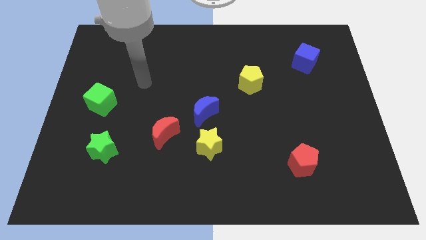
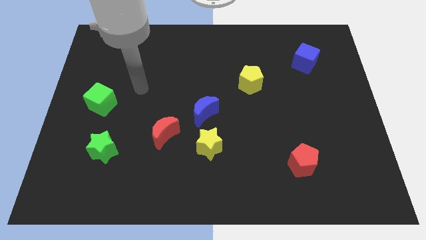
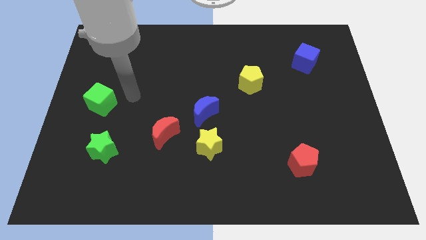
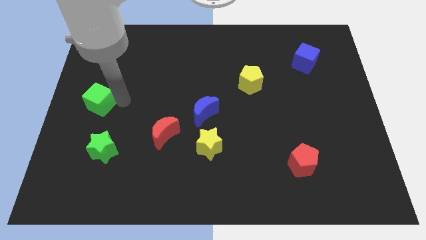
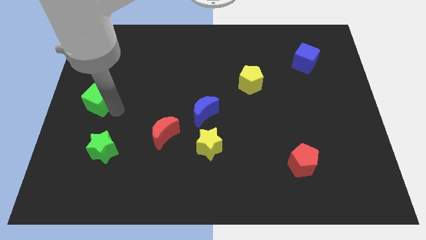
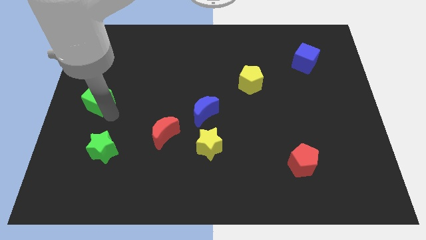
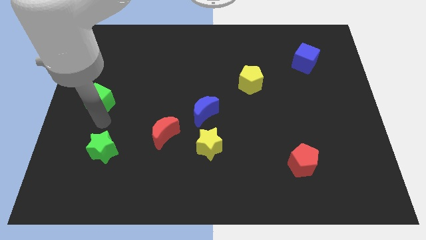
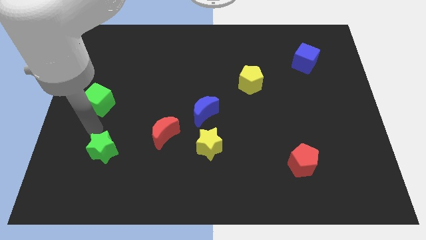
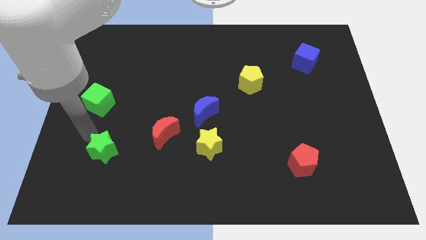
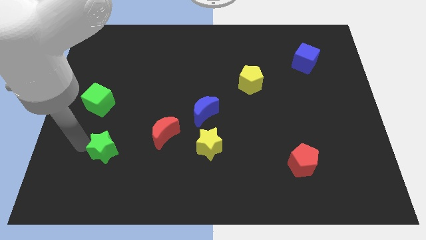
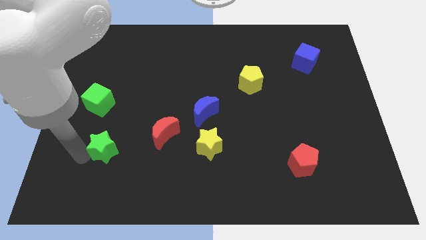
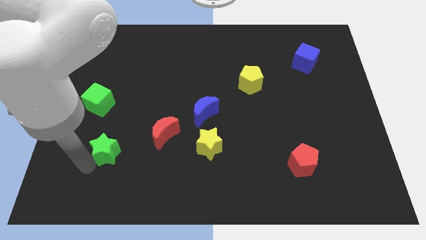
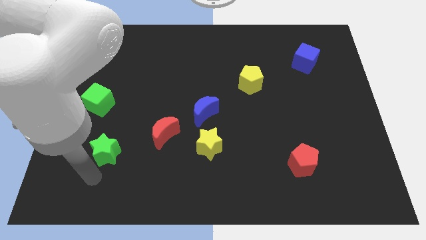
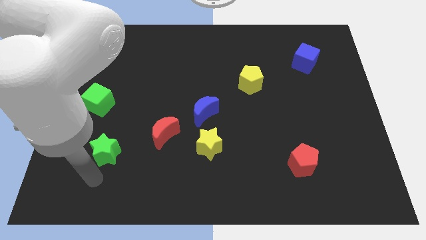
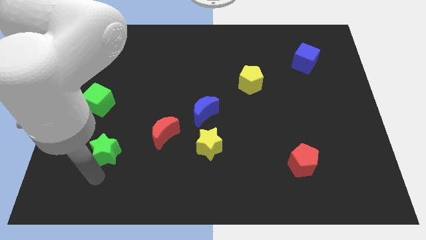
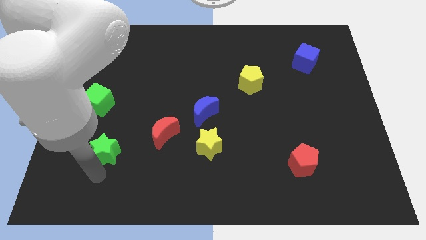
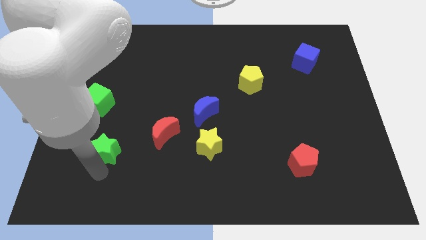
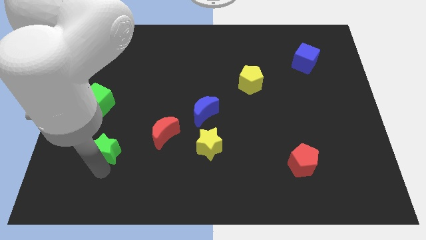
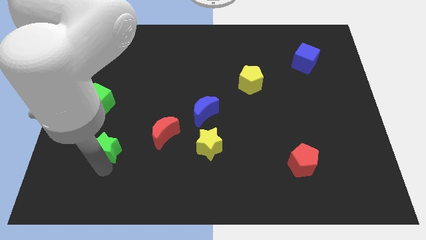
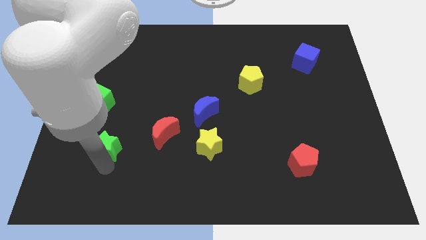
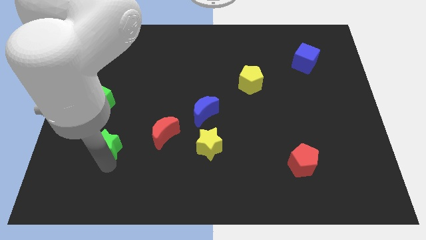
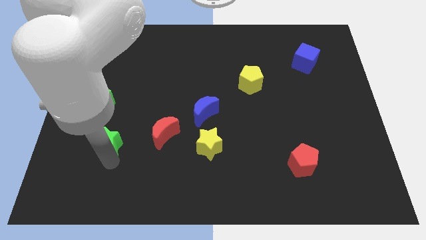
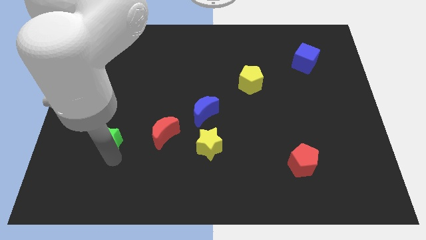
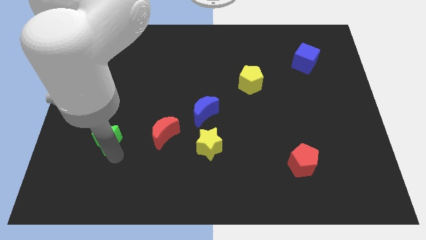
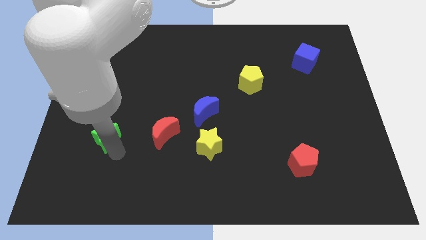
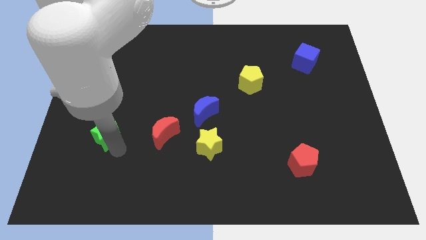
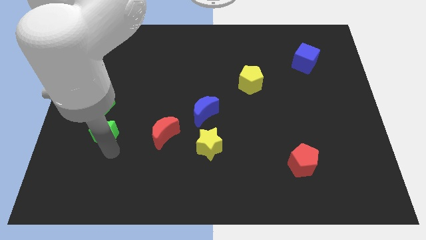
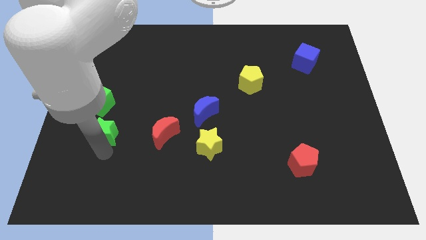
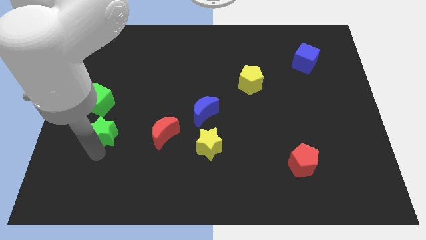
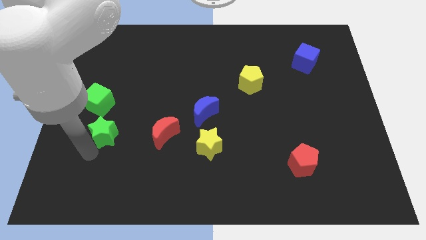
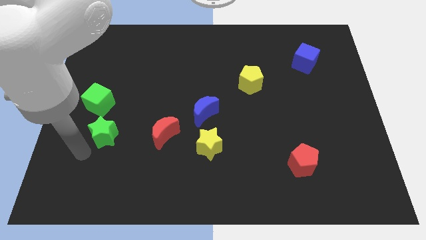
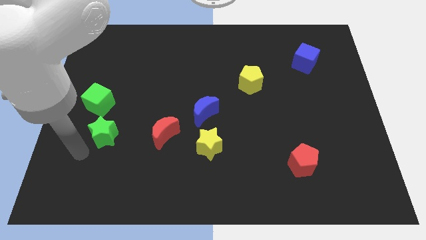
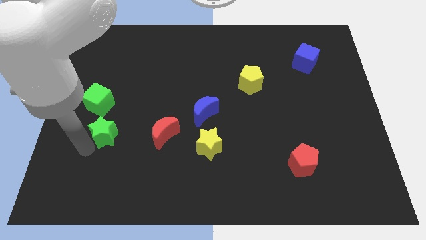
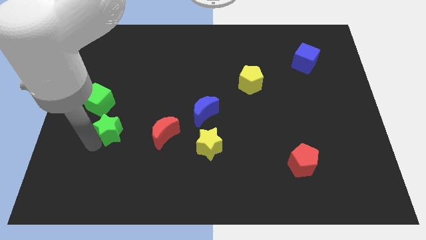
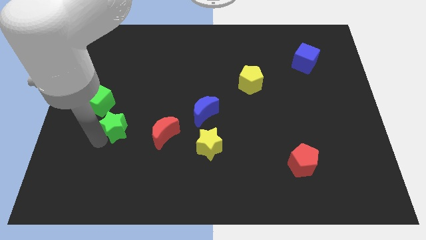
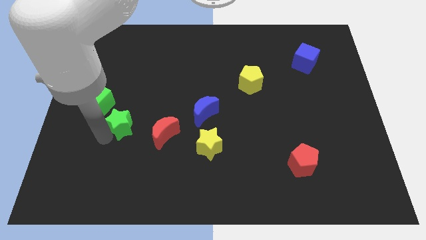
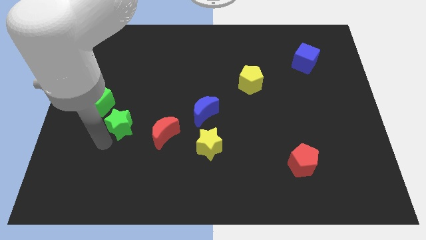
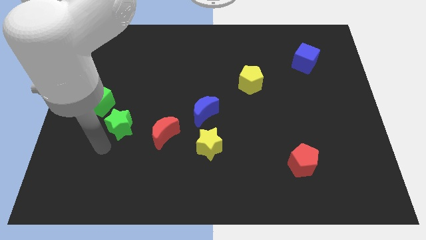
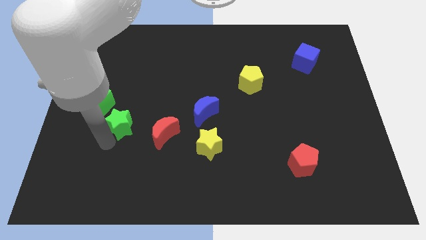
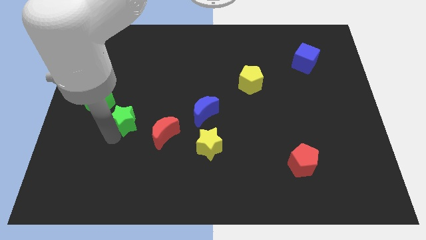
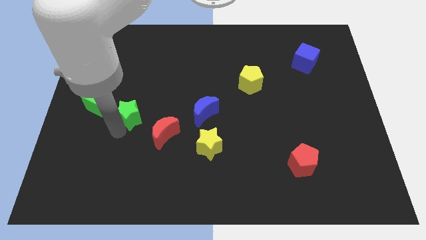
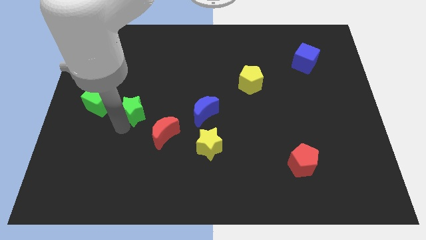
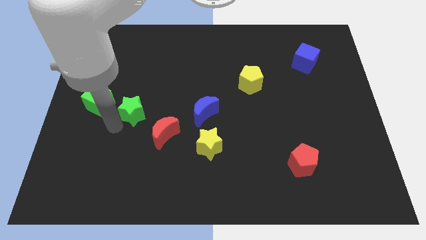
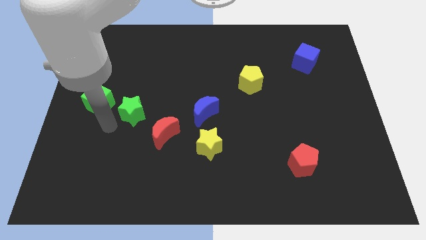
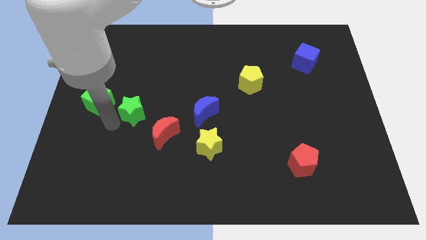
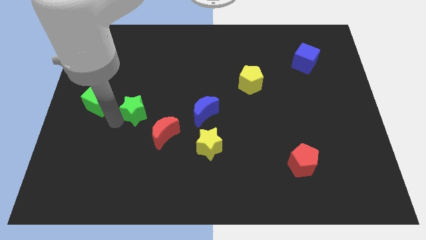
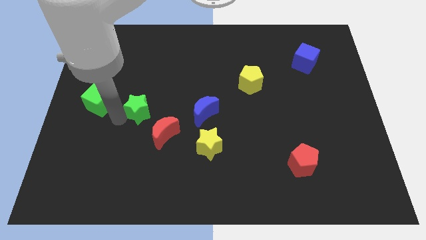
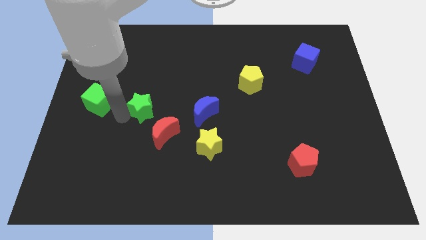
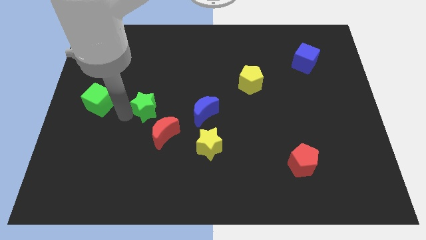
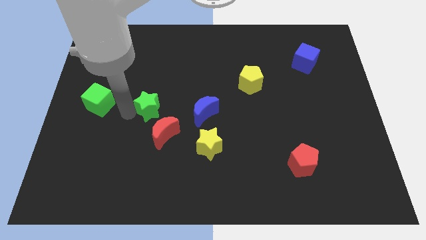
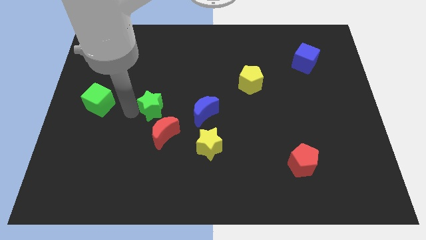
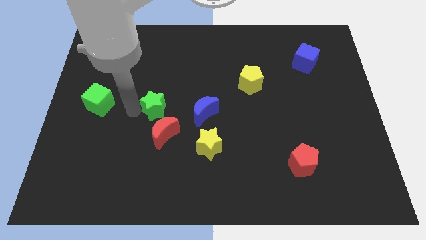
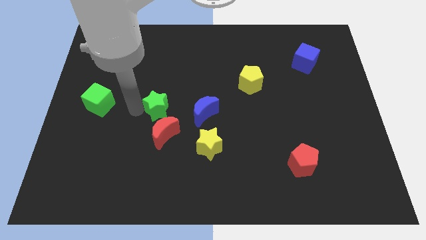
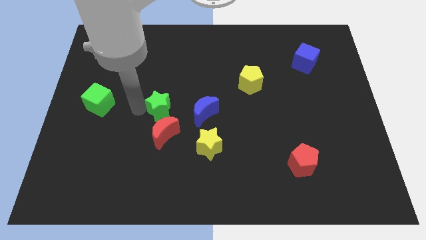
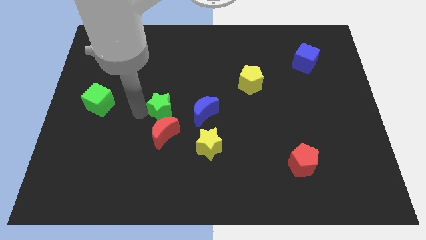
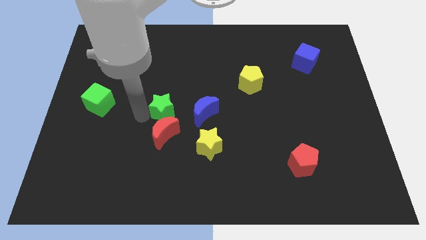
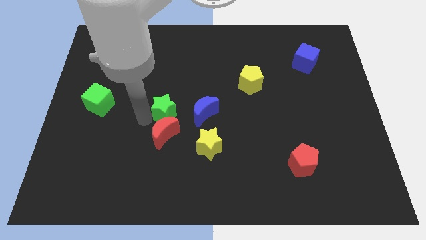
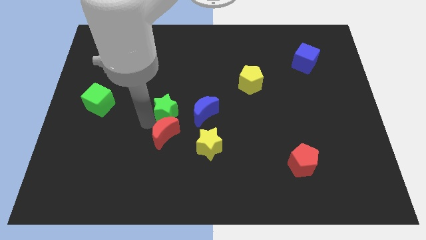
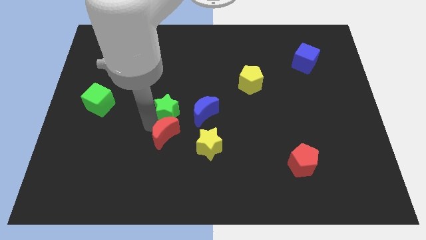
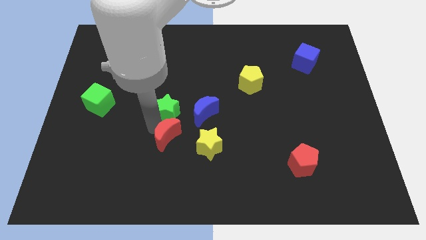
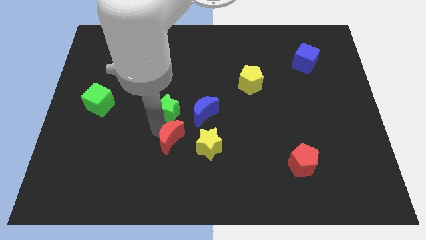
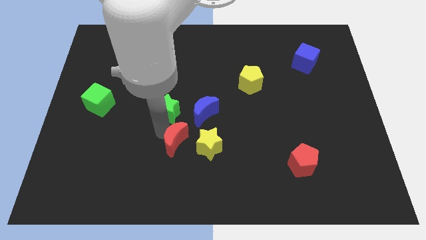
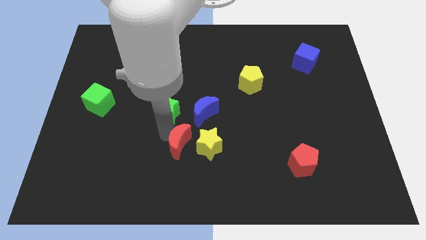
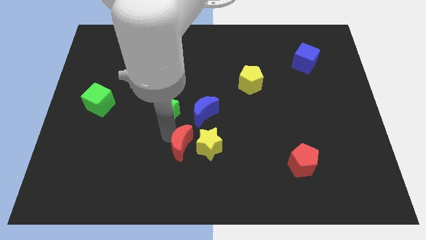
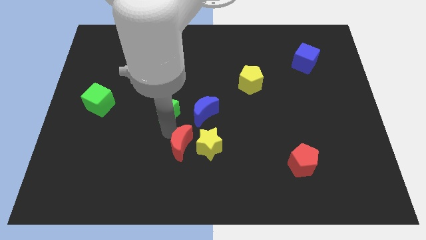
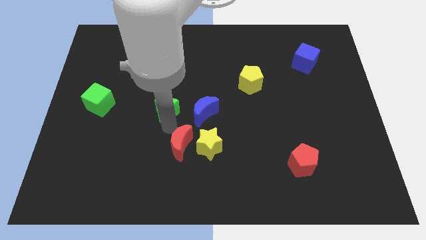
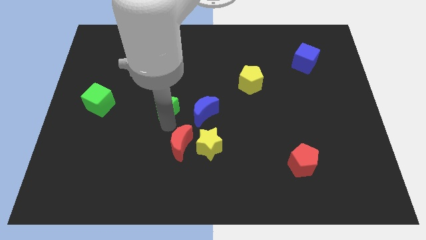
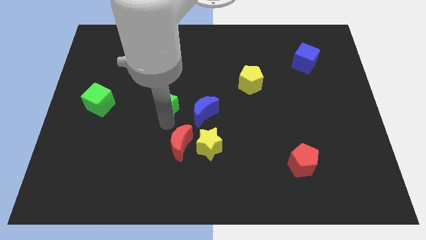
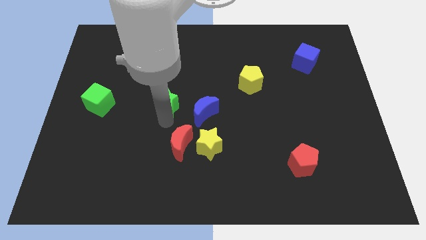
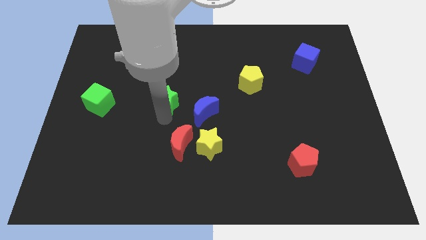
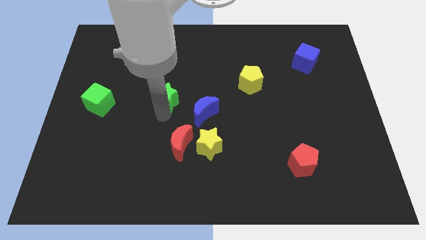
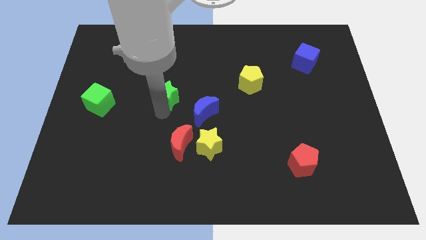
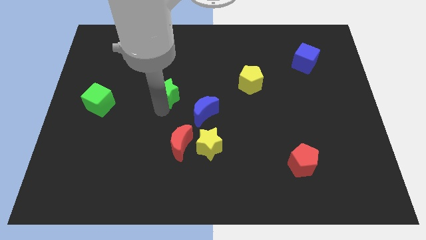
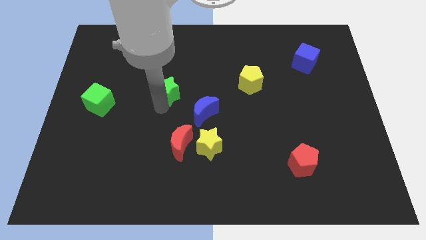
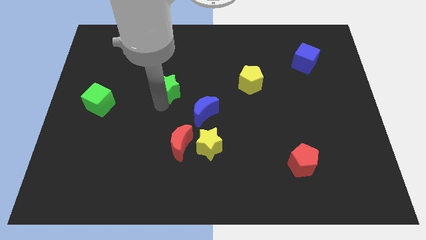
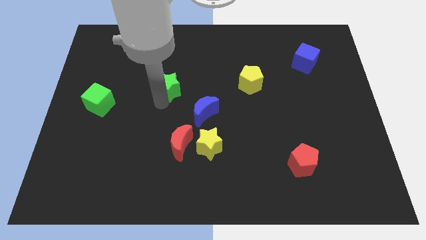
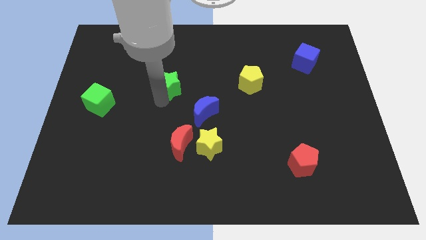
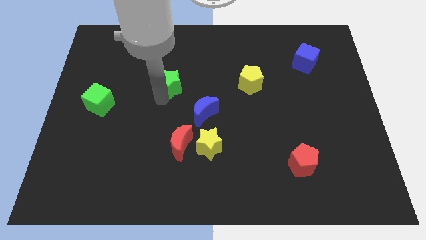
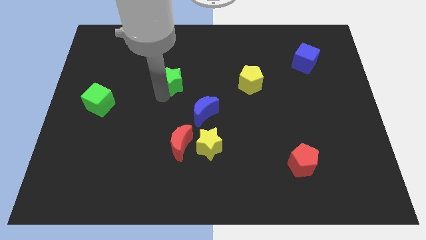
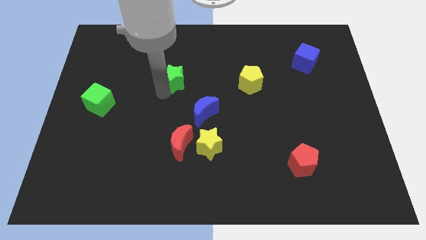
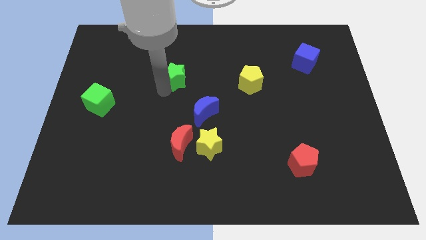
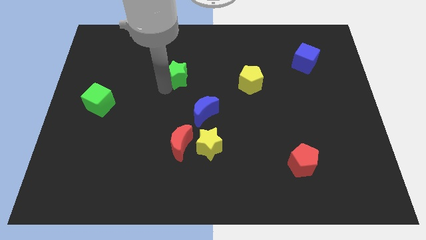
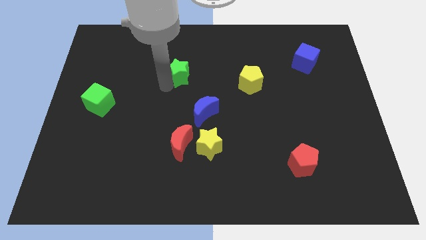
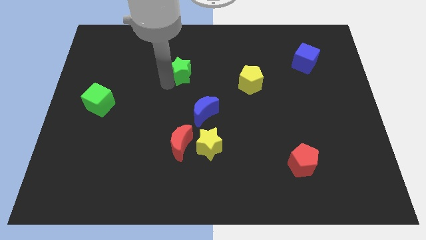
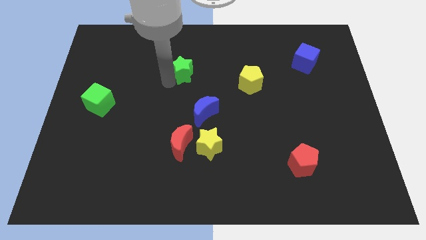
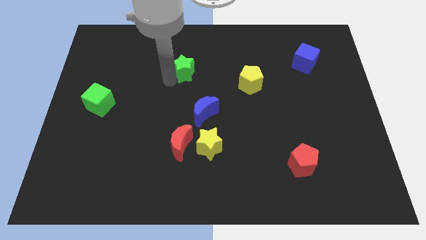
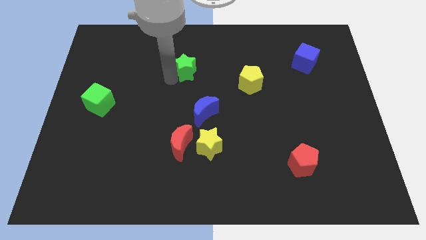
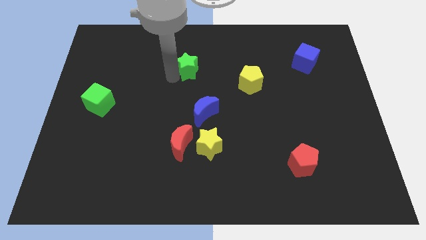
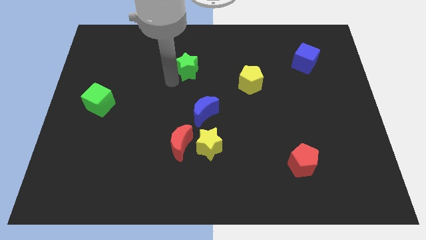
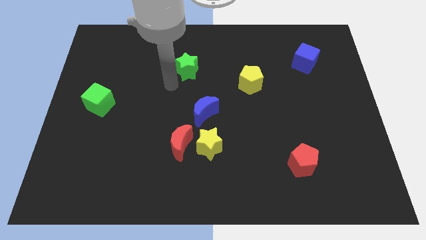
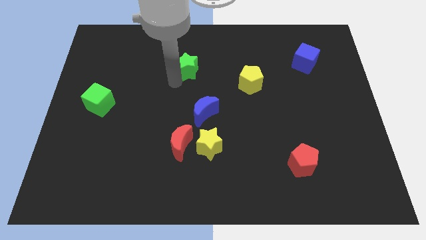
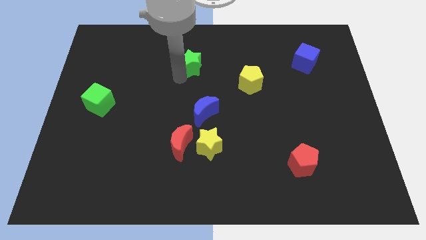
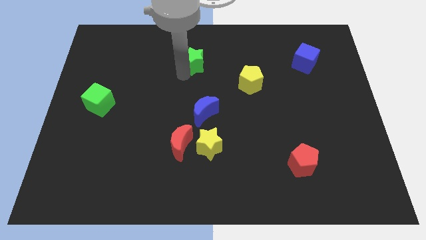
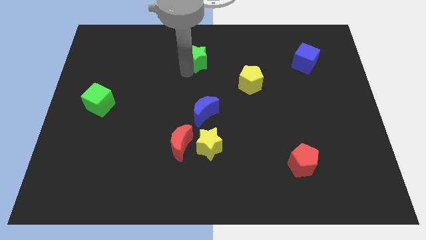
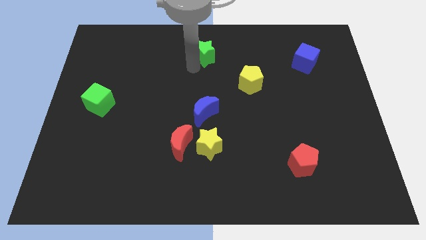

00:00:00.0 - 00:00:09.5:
push the green star to the top side
